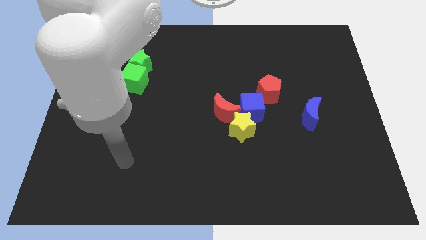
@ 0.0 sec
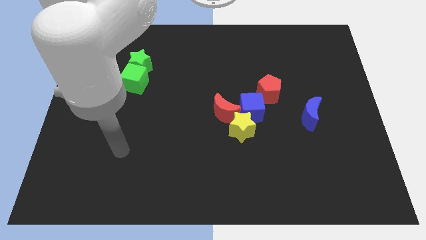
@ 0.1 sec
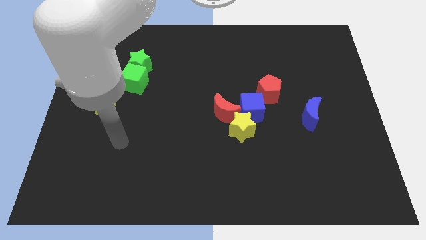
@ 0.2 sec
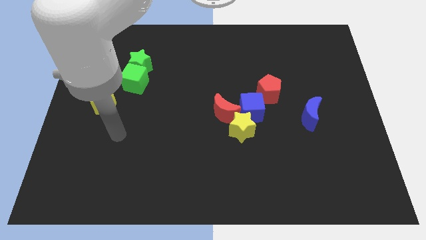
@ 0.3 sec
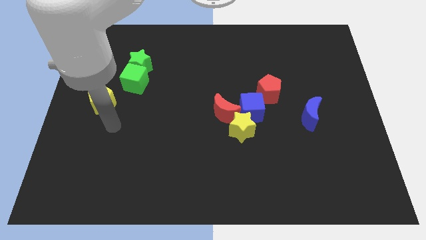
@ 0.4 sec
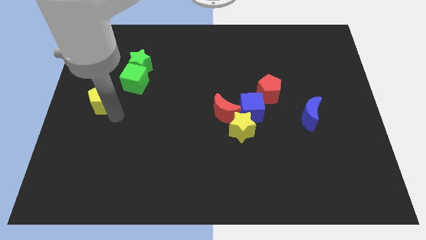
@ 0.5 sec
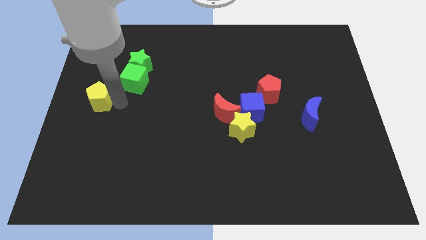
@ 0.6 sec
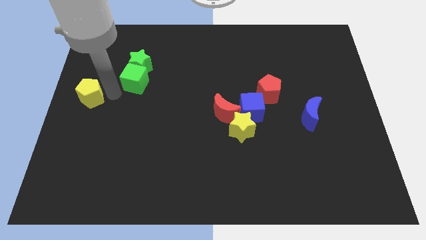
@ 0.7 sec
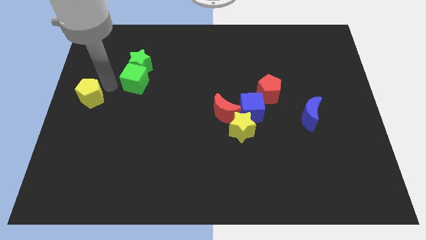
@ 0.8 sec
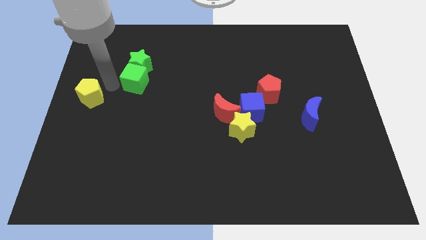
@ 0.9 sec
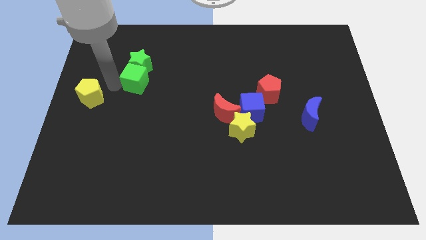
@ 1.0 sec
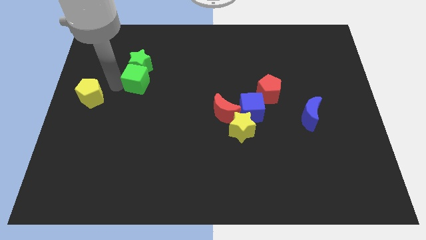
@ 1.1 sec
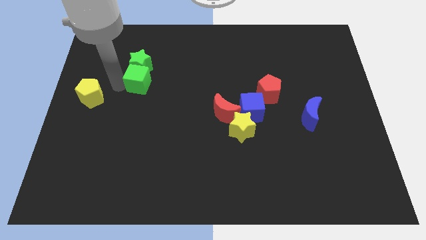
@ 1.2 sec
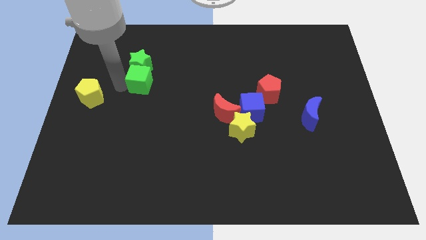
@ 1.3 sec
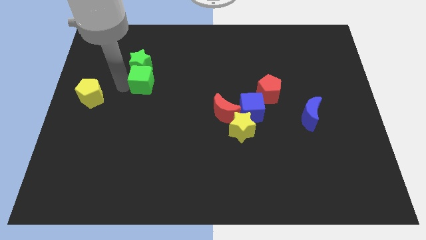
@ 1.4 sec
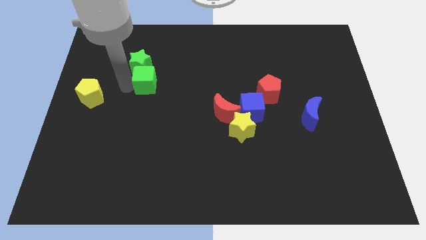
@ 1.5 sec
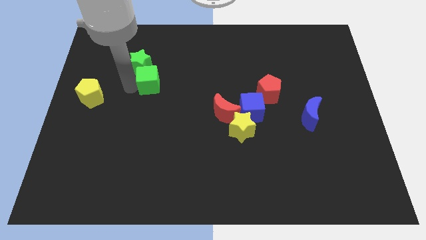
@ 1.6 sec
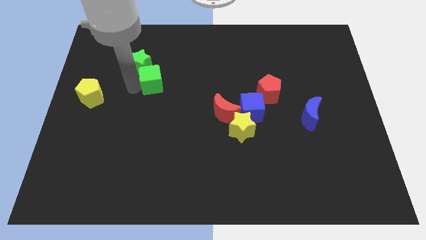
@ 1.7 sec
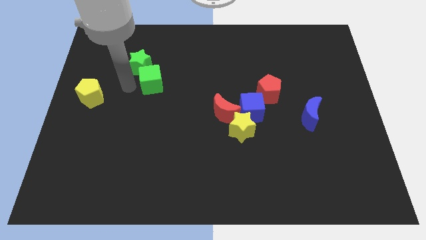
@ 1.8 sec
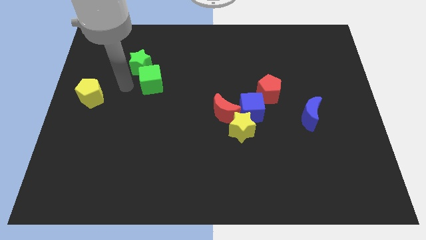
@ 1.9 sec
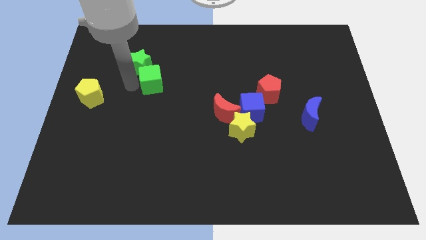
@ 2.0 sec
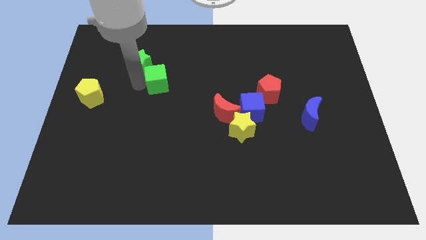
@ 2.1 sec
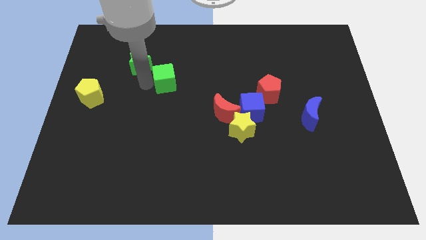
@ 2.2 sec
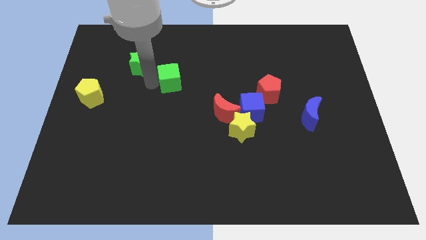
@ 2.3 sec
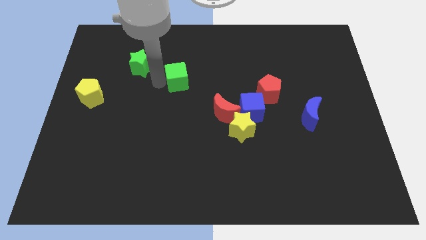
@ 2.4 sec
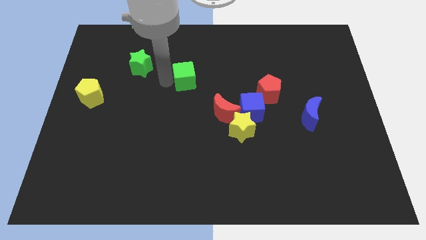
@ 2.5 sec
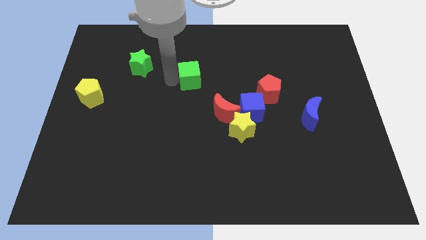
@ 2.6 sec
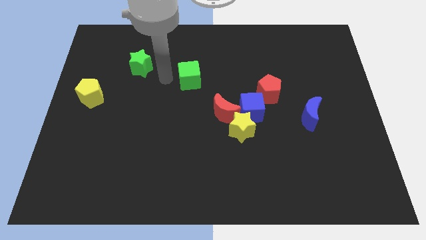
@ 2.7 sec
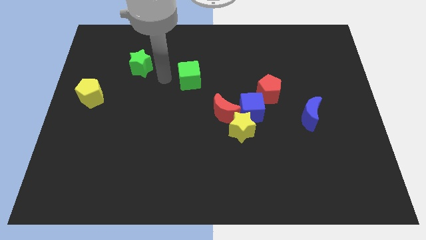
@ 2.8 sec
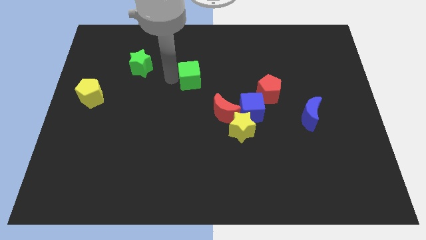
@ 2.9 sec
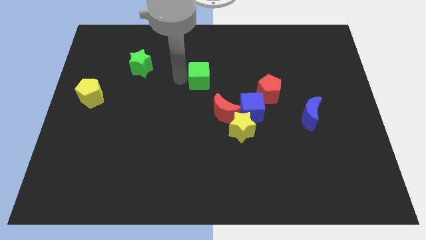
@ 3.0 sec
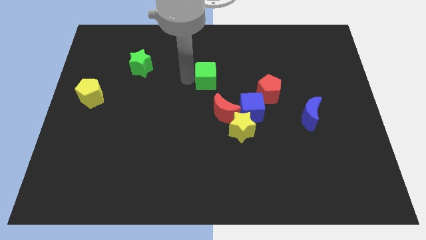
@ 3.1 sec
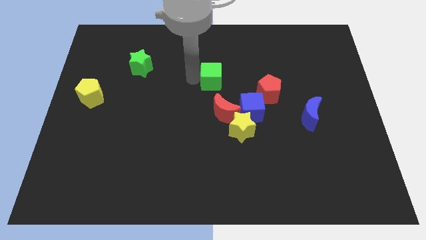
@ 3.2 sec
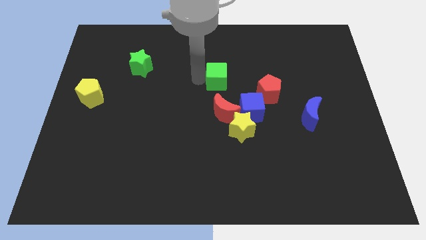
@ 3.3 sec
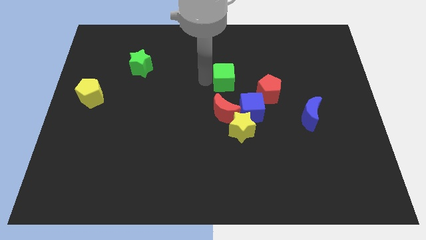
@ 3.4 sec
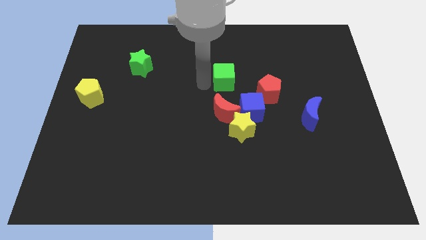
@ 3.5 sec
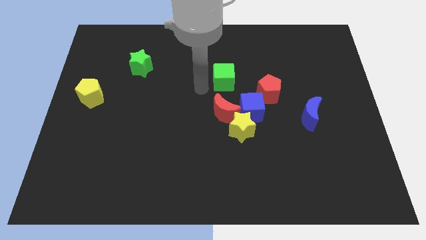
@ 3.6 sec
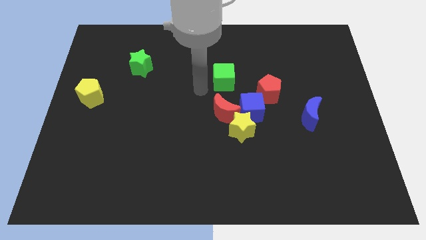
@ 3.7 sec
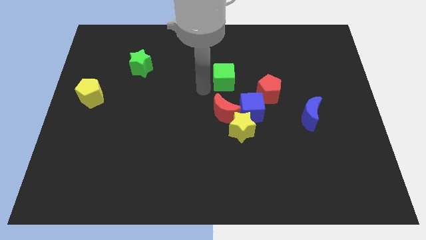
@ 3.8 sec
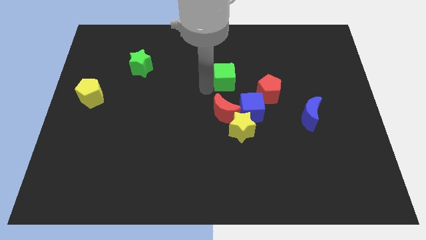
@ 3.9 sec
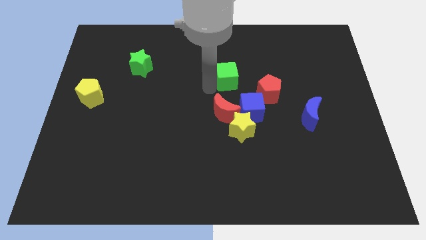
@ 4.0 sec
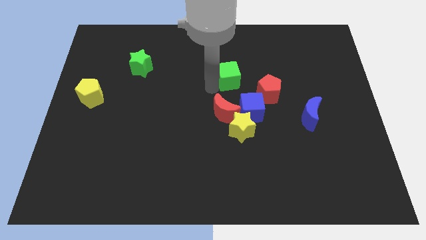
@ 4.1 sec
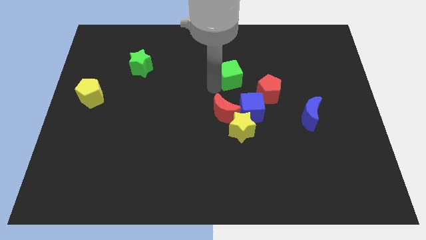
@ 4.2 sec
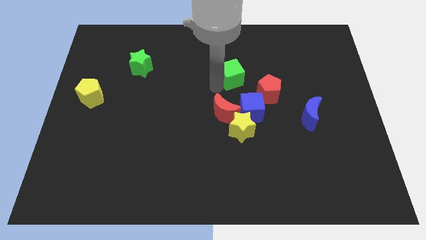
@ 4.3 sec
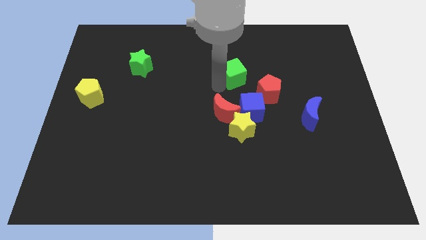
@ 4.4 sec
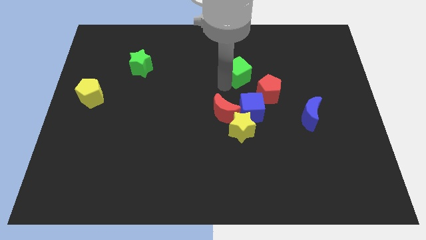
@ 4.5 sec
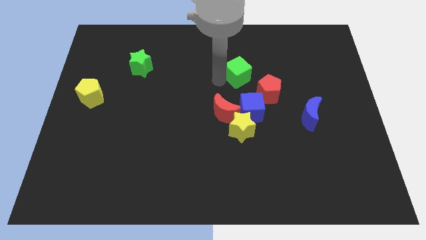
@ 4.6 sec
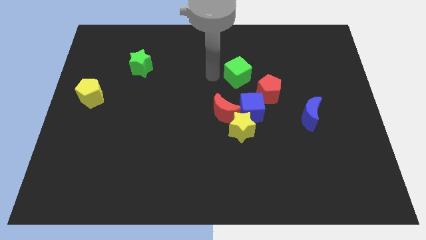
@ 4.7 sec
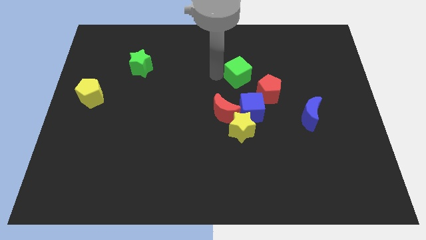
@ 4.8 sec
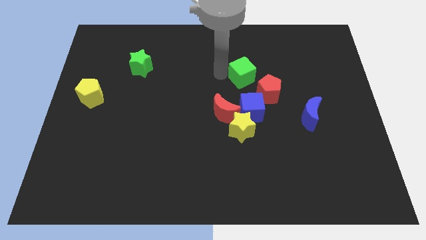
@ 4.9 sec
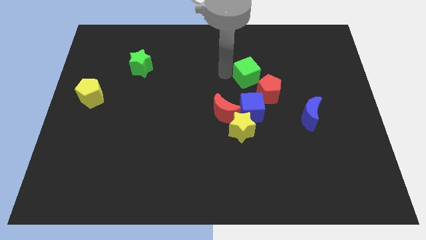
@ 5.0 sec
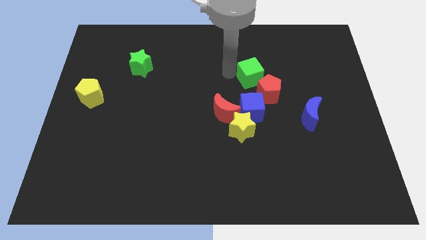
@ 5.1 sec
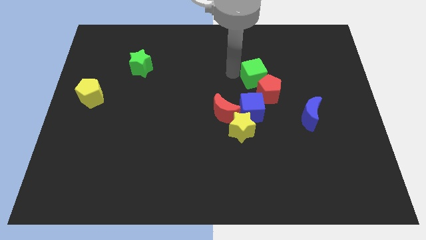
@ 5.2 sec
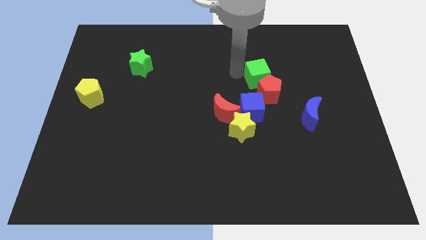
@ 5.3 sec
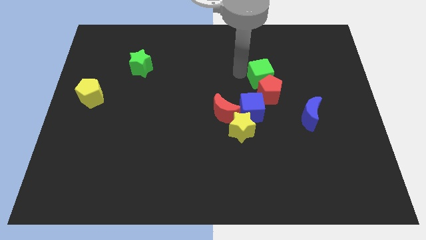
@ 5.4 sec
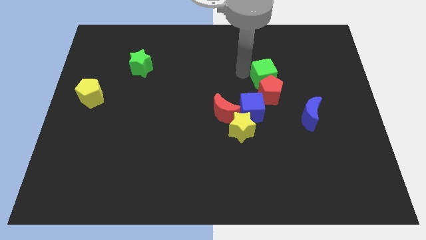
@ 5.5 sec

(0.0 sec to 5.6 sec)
move the green cube diagonally up and to the right of the red pentagon

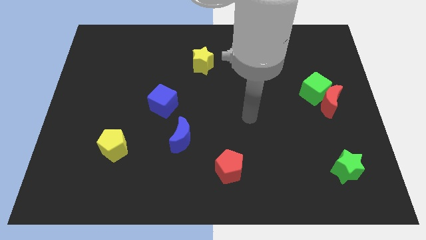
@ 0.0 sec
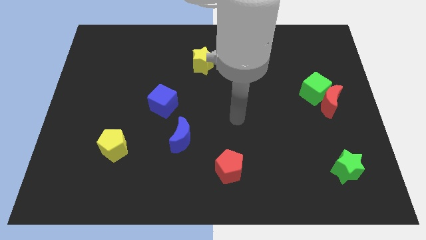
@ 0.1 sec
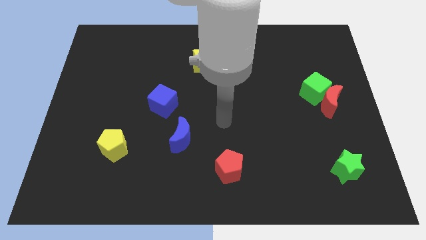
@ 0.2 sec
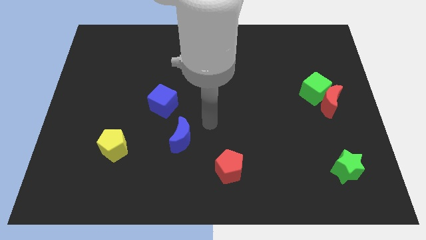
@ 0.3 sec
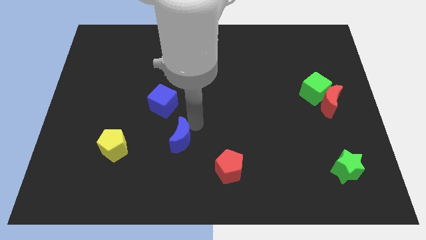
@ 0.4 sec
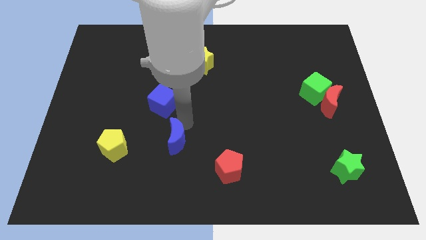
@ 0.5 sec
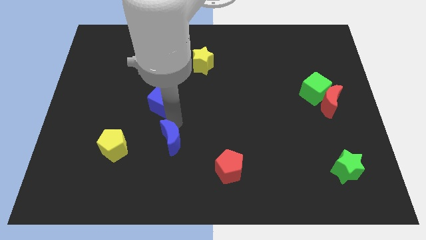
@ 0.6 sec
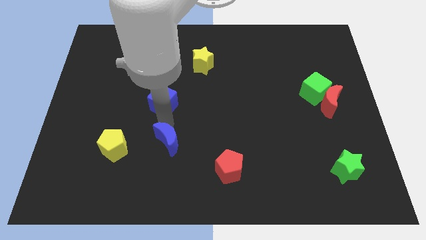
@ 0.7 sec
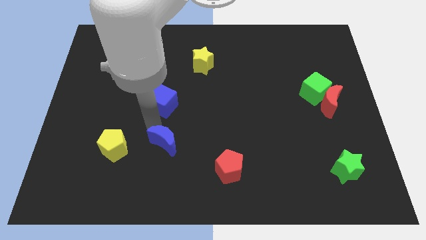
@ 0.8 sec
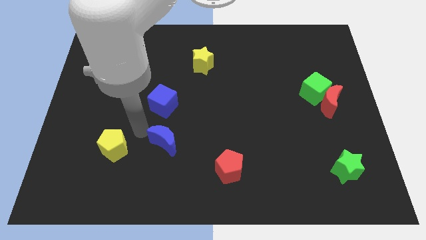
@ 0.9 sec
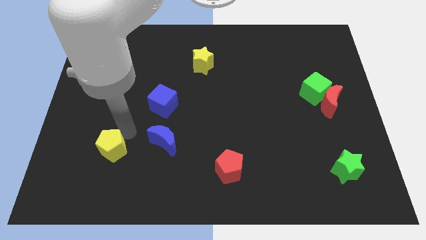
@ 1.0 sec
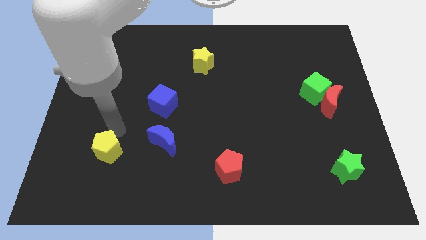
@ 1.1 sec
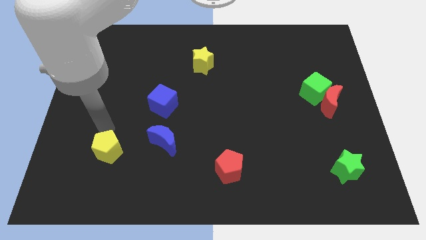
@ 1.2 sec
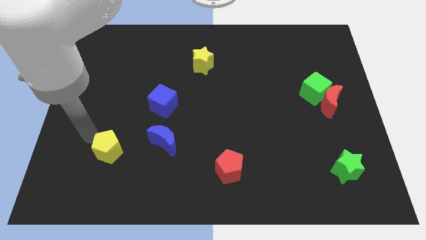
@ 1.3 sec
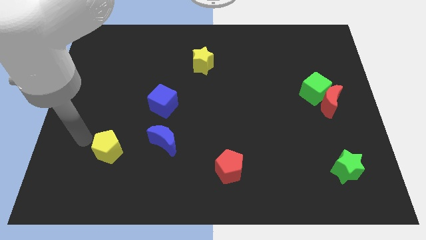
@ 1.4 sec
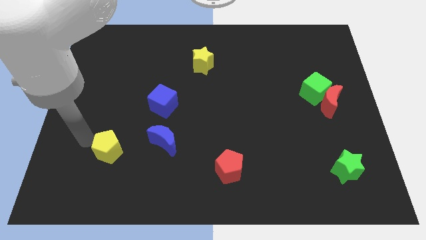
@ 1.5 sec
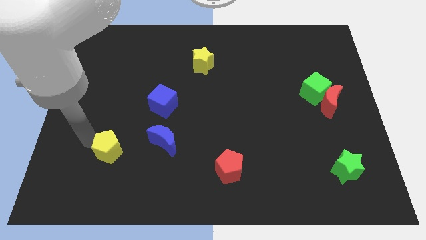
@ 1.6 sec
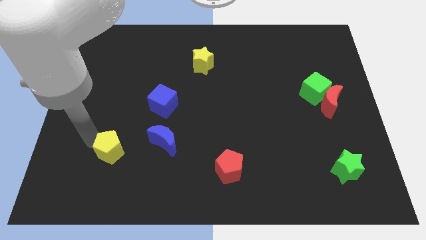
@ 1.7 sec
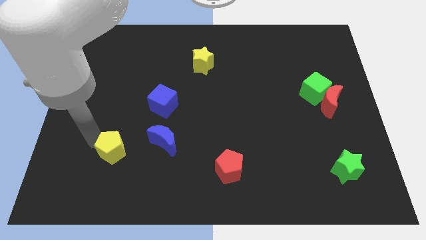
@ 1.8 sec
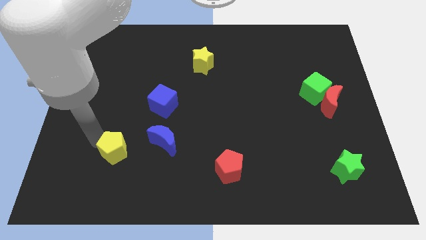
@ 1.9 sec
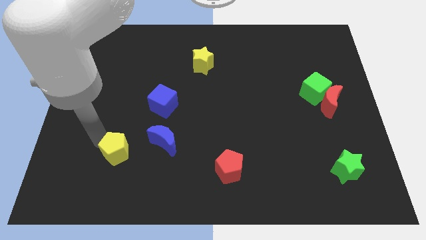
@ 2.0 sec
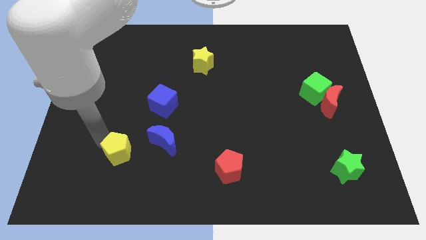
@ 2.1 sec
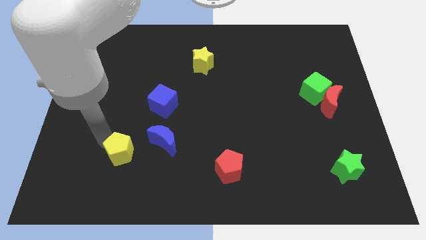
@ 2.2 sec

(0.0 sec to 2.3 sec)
put the yellow pentagon to the bottom left of the blue moon
